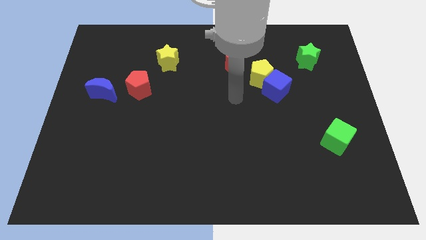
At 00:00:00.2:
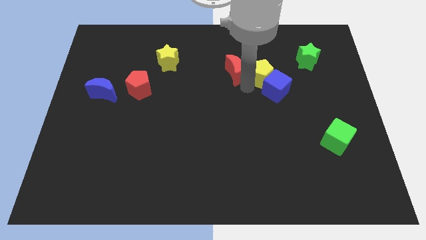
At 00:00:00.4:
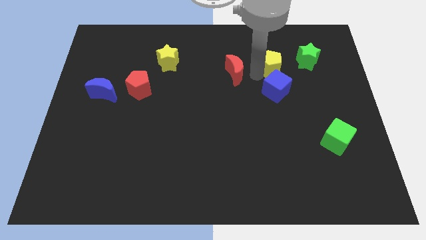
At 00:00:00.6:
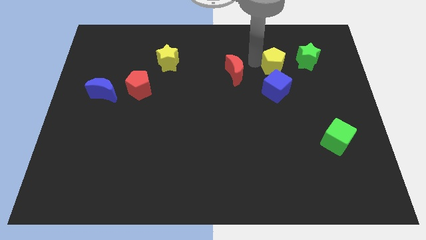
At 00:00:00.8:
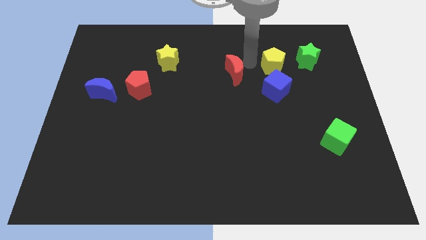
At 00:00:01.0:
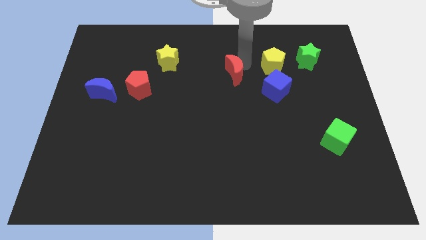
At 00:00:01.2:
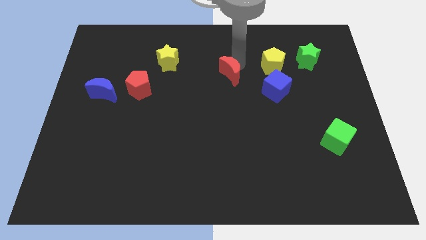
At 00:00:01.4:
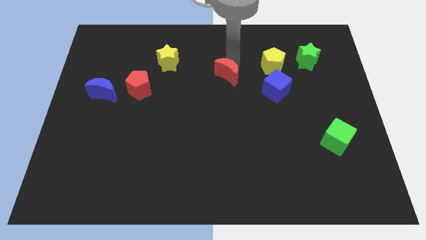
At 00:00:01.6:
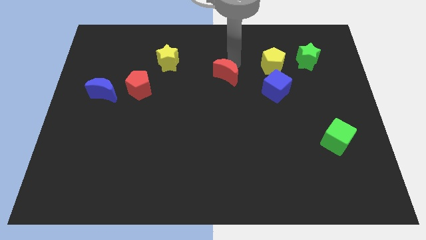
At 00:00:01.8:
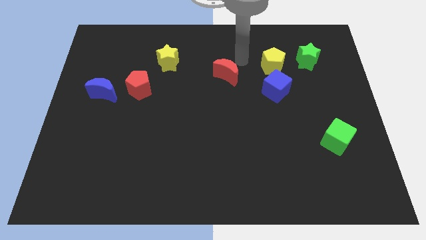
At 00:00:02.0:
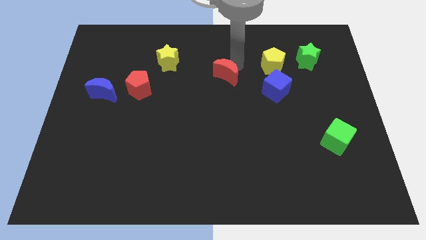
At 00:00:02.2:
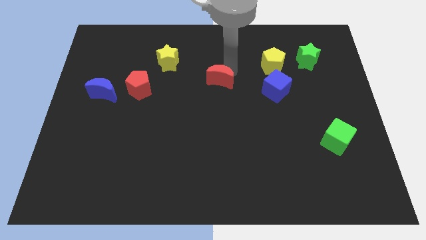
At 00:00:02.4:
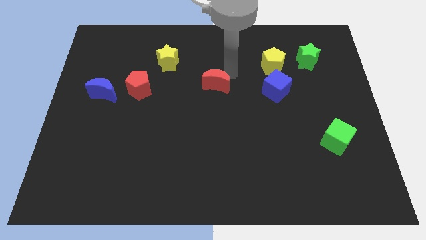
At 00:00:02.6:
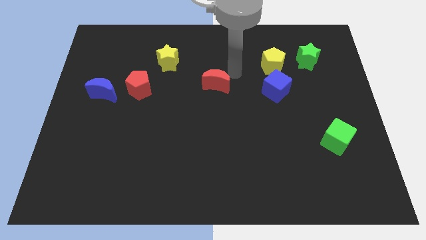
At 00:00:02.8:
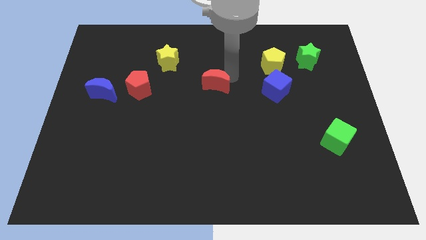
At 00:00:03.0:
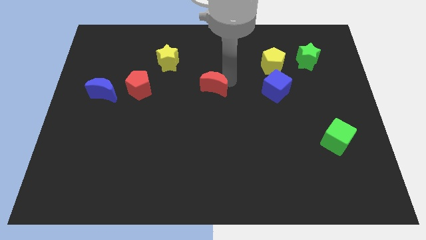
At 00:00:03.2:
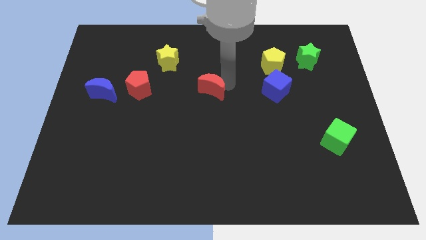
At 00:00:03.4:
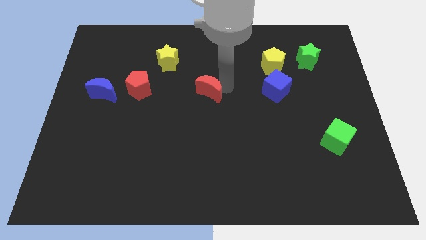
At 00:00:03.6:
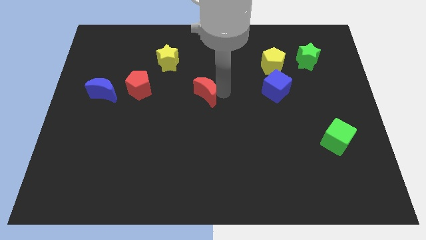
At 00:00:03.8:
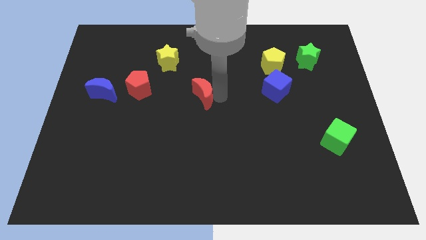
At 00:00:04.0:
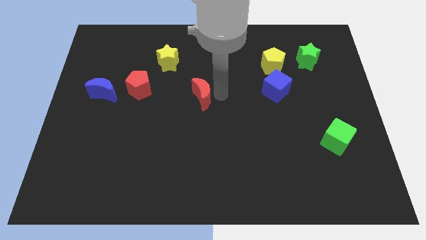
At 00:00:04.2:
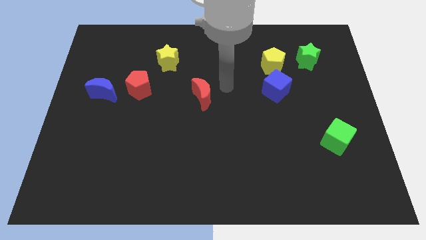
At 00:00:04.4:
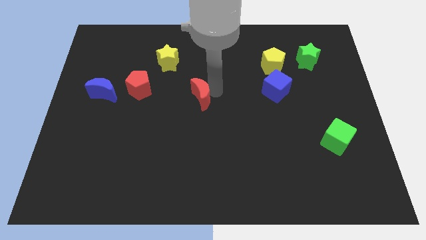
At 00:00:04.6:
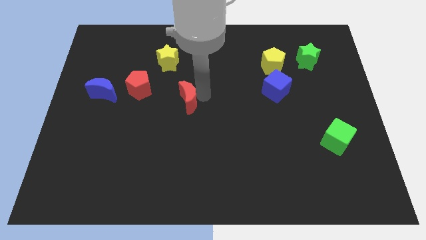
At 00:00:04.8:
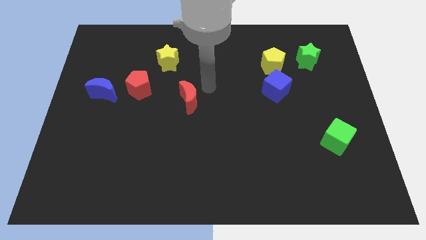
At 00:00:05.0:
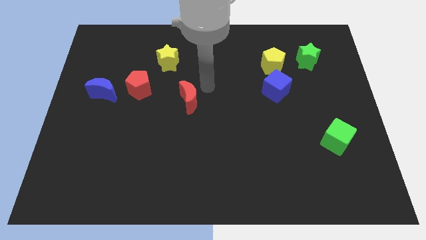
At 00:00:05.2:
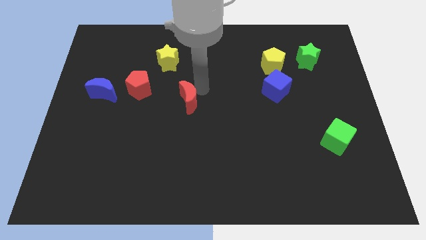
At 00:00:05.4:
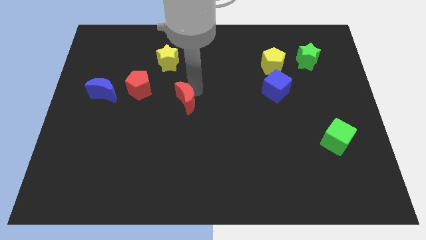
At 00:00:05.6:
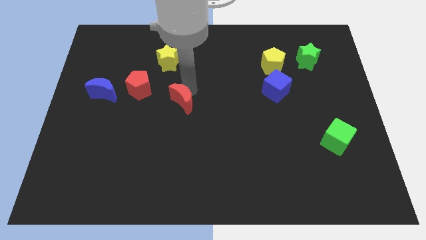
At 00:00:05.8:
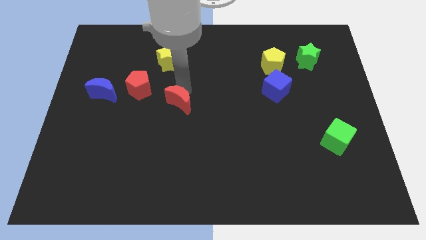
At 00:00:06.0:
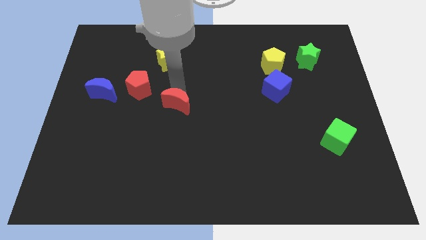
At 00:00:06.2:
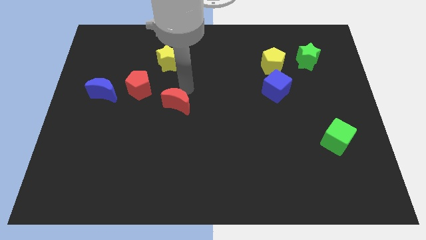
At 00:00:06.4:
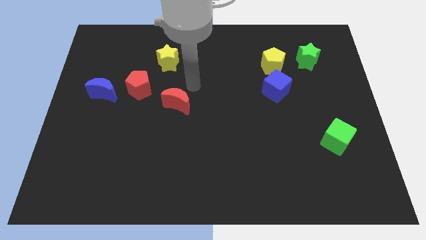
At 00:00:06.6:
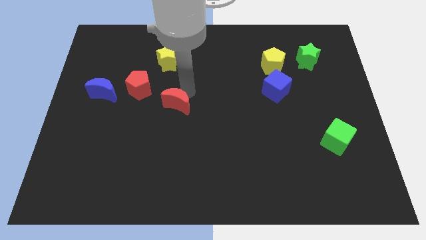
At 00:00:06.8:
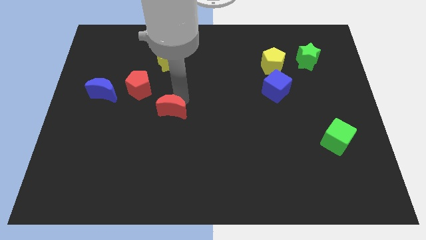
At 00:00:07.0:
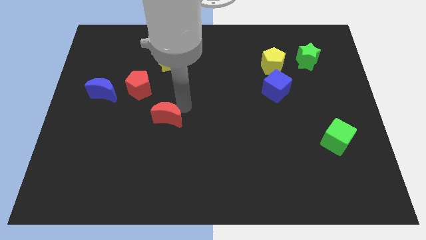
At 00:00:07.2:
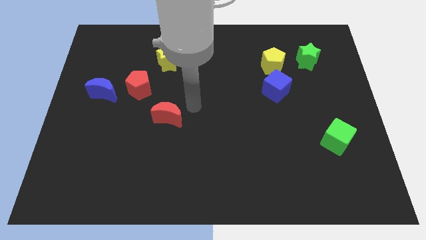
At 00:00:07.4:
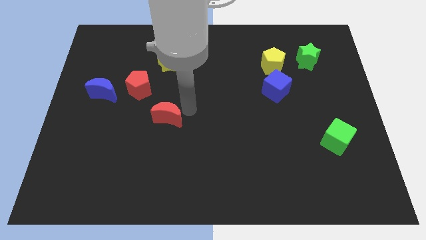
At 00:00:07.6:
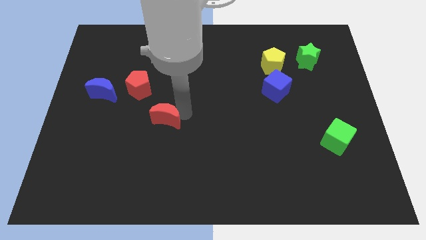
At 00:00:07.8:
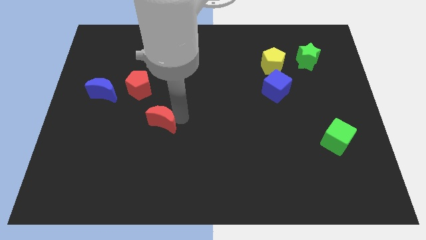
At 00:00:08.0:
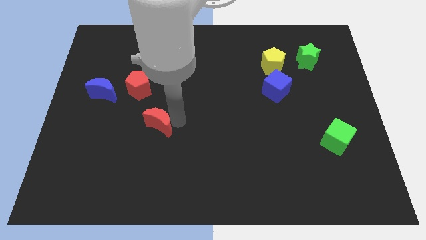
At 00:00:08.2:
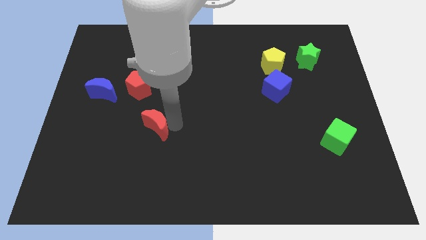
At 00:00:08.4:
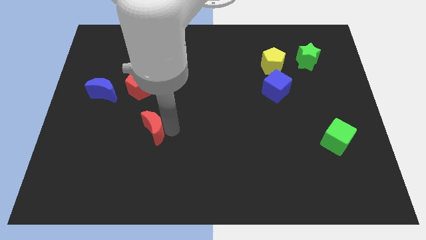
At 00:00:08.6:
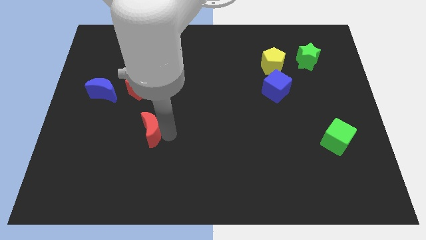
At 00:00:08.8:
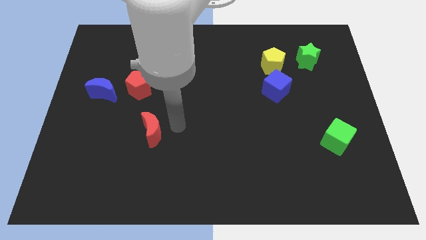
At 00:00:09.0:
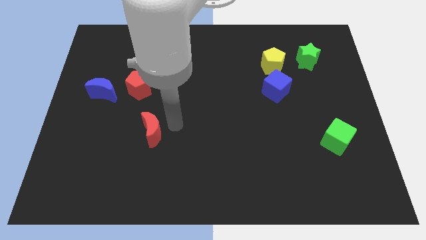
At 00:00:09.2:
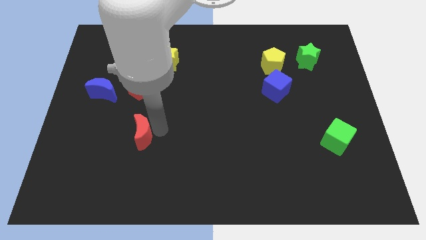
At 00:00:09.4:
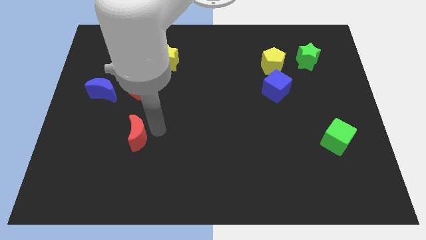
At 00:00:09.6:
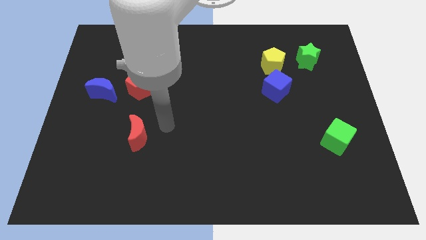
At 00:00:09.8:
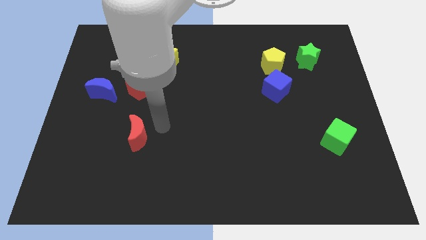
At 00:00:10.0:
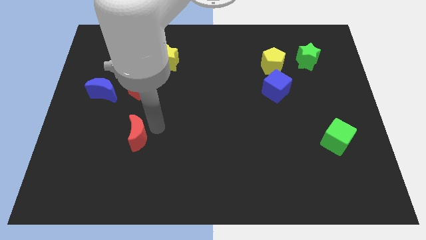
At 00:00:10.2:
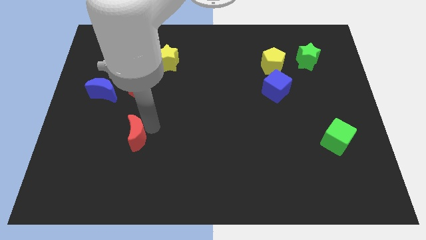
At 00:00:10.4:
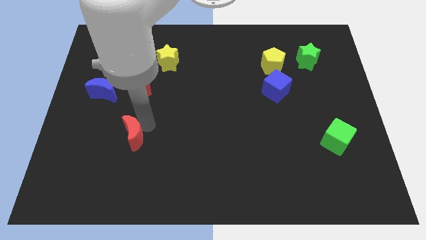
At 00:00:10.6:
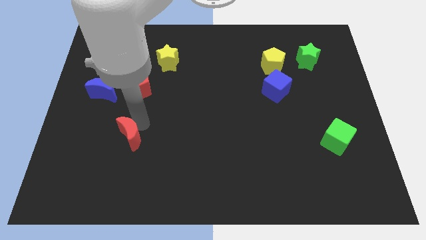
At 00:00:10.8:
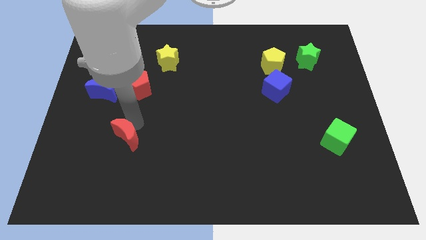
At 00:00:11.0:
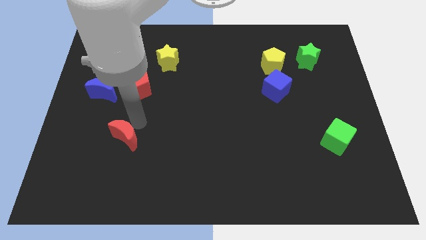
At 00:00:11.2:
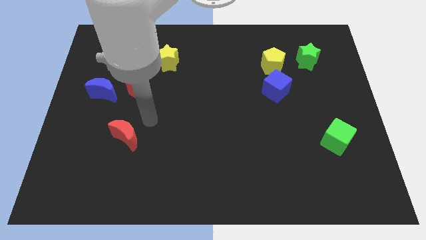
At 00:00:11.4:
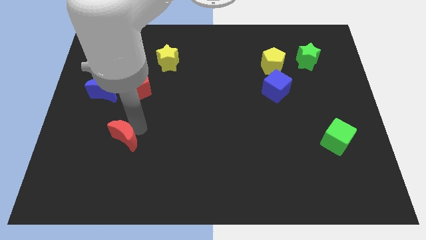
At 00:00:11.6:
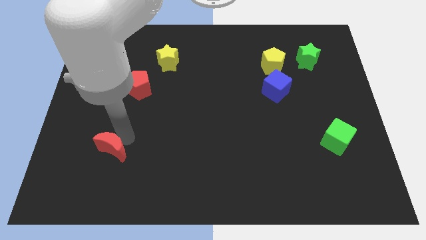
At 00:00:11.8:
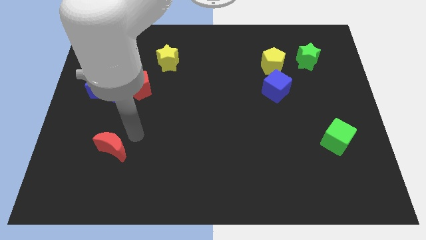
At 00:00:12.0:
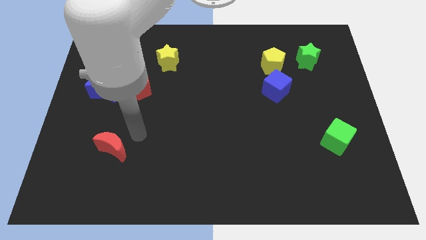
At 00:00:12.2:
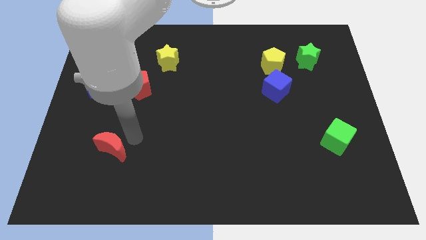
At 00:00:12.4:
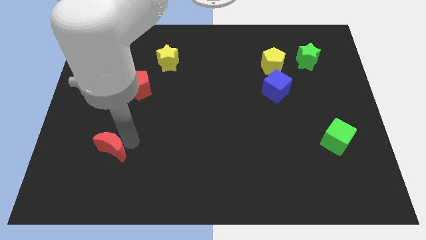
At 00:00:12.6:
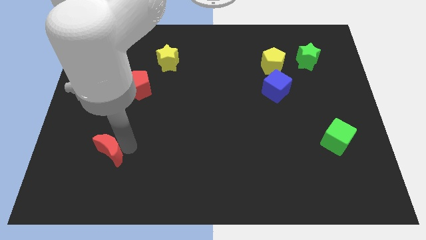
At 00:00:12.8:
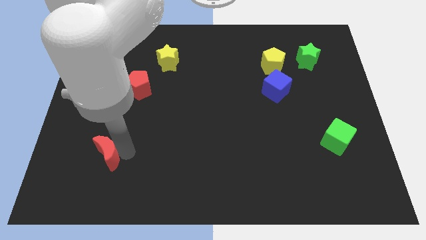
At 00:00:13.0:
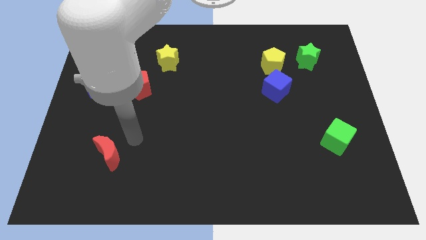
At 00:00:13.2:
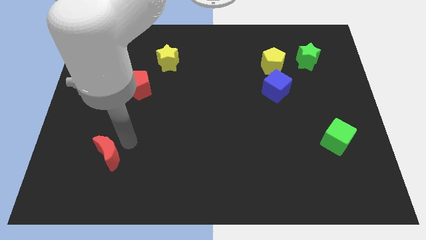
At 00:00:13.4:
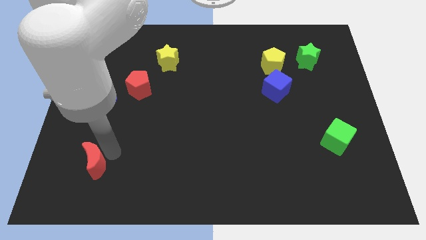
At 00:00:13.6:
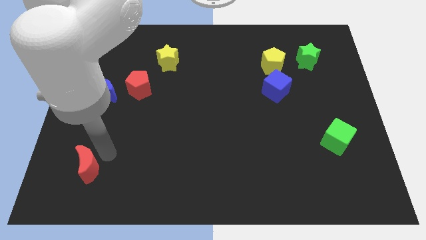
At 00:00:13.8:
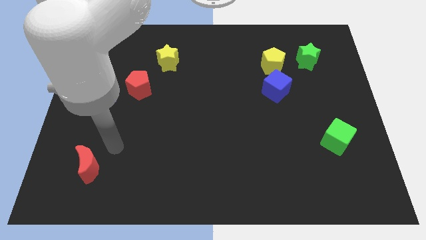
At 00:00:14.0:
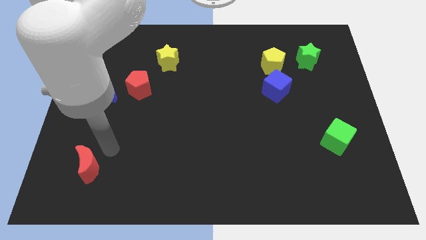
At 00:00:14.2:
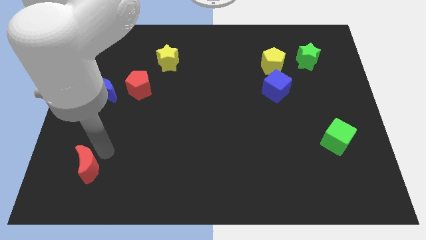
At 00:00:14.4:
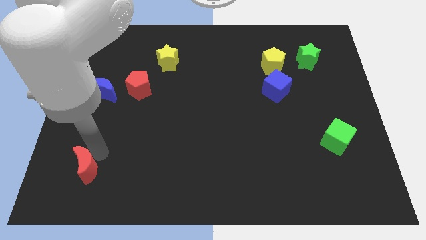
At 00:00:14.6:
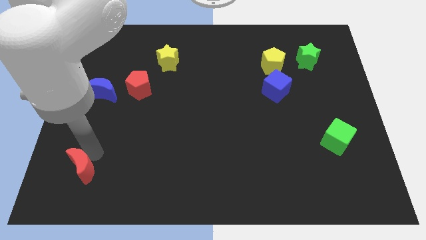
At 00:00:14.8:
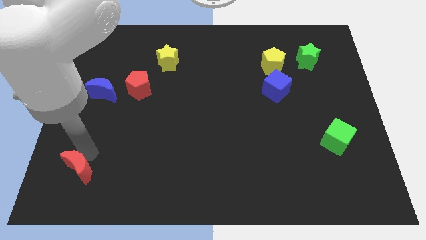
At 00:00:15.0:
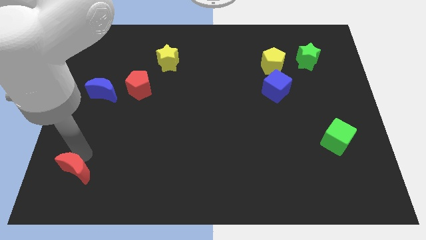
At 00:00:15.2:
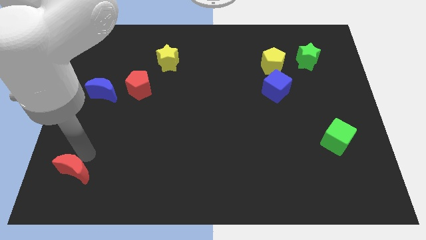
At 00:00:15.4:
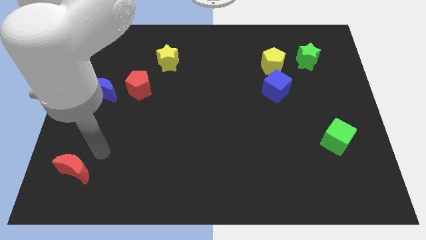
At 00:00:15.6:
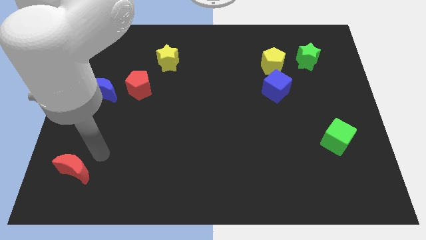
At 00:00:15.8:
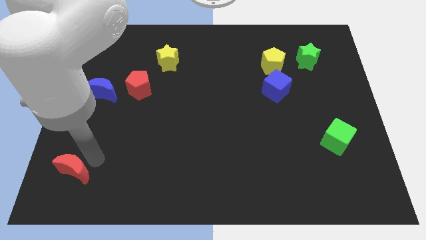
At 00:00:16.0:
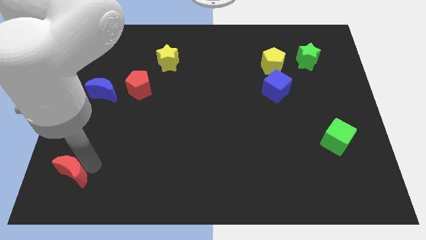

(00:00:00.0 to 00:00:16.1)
push the red moon to the bottom left corner
